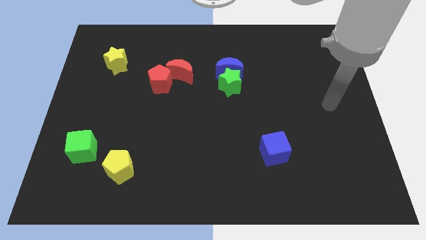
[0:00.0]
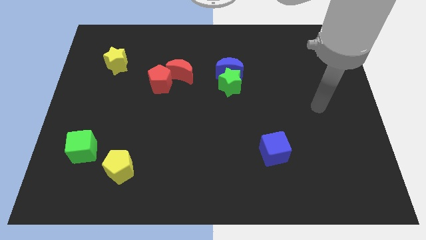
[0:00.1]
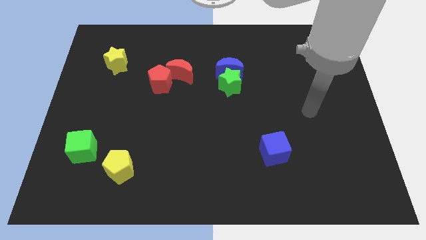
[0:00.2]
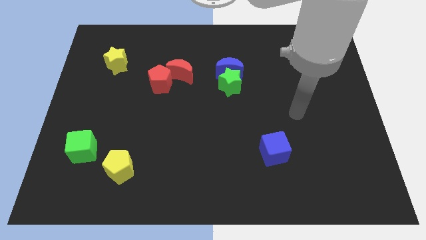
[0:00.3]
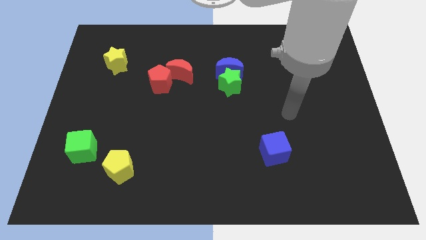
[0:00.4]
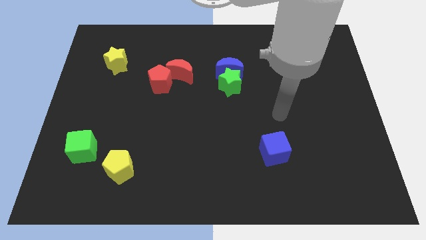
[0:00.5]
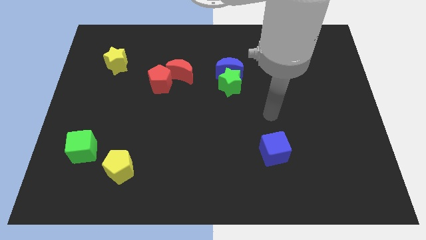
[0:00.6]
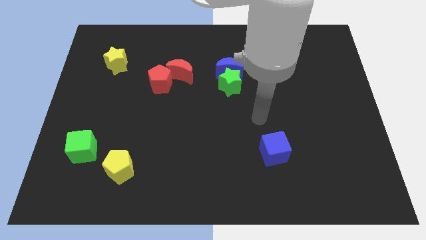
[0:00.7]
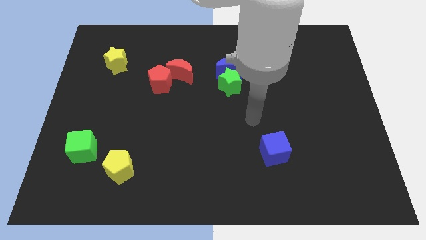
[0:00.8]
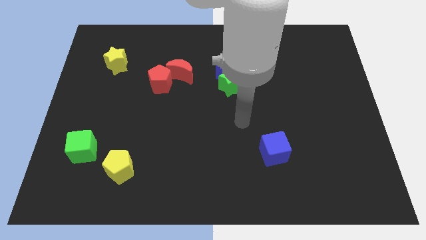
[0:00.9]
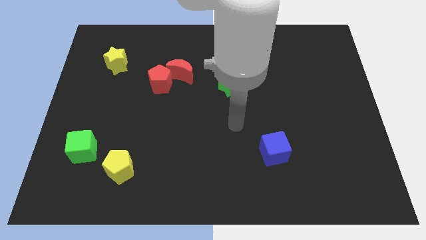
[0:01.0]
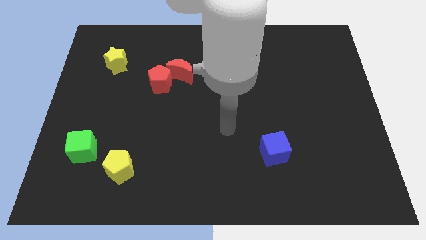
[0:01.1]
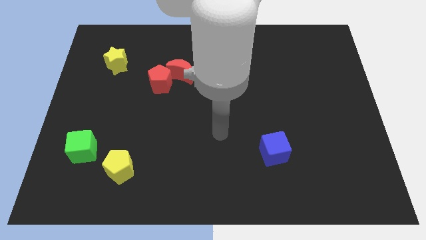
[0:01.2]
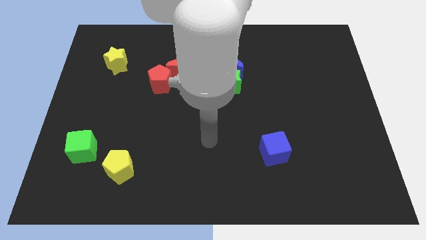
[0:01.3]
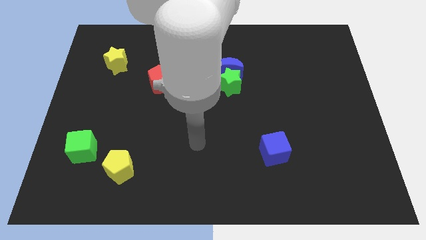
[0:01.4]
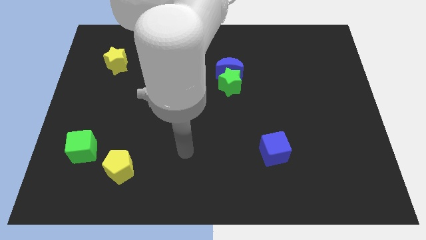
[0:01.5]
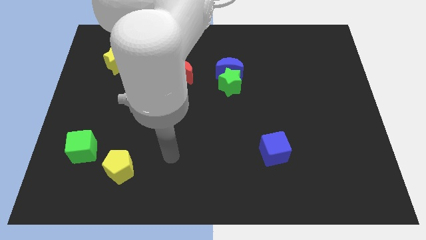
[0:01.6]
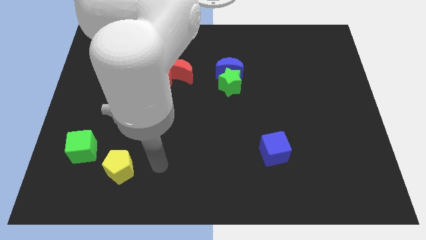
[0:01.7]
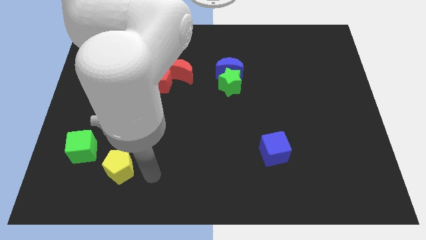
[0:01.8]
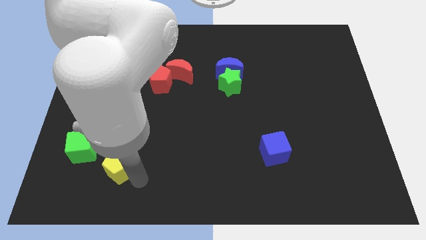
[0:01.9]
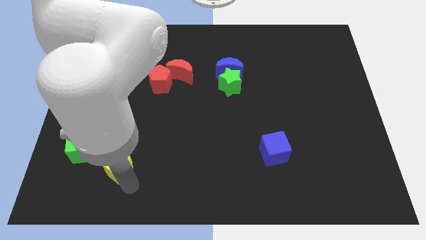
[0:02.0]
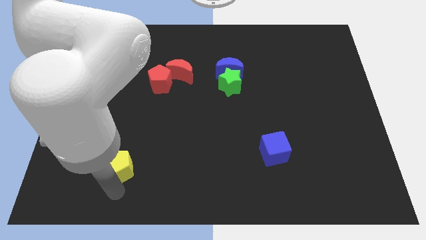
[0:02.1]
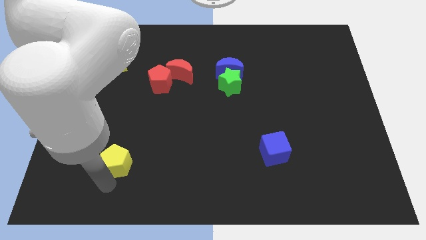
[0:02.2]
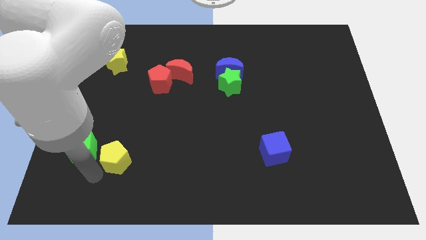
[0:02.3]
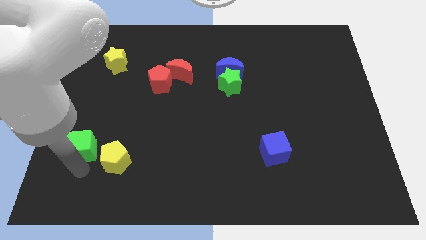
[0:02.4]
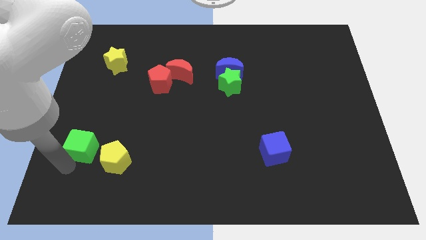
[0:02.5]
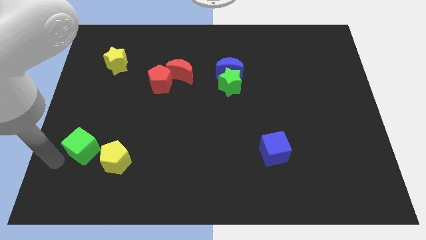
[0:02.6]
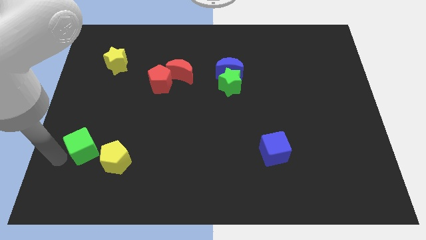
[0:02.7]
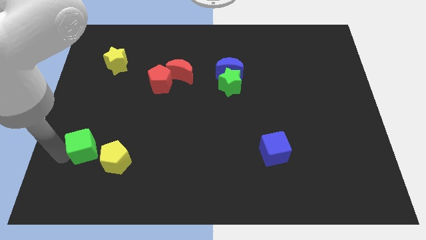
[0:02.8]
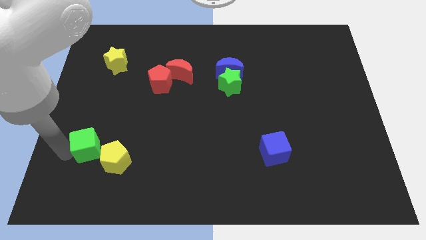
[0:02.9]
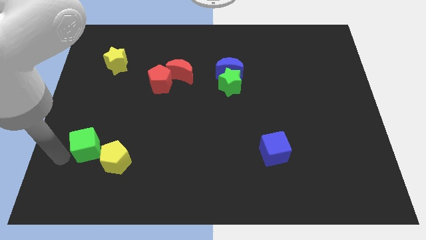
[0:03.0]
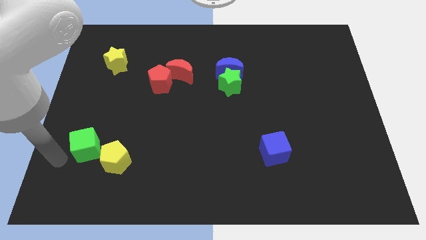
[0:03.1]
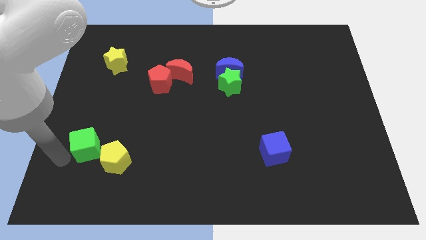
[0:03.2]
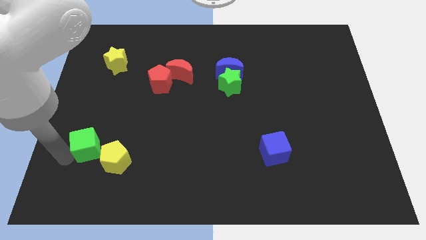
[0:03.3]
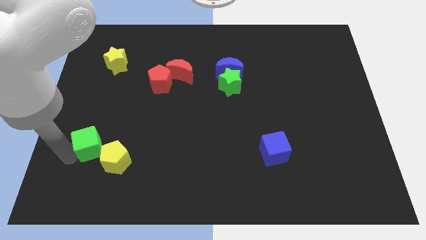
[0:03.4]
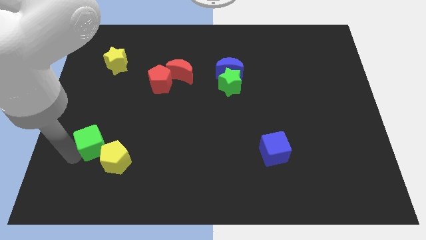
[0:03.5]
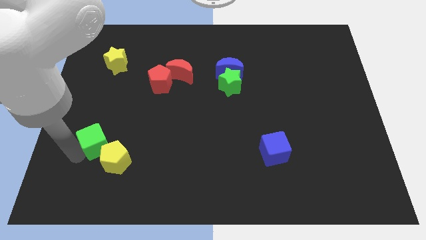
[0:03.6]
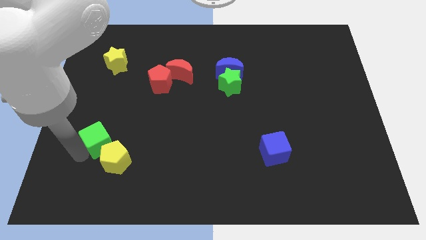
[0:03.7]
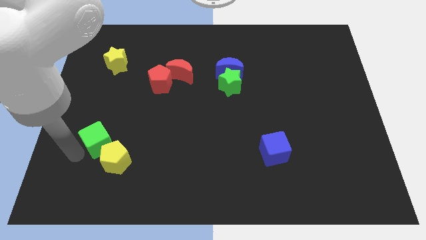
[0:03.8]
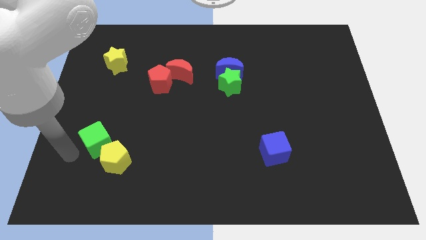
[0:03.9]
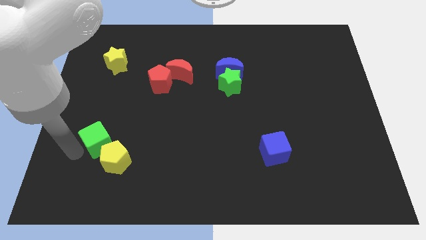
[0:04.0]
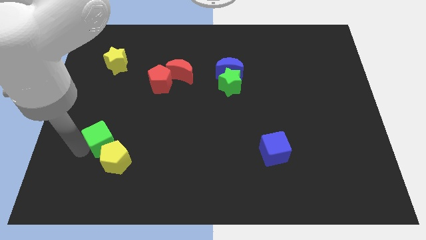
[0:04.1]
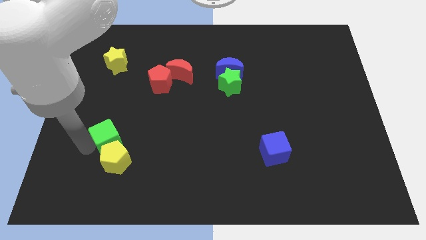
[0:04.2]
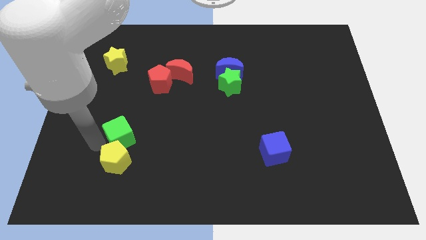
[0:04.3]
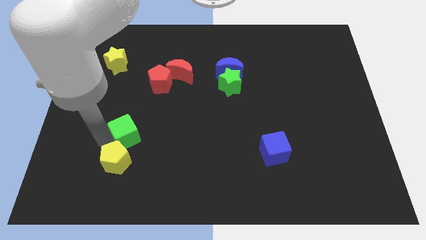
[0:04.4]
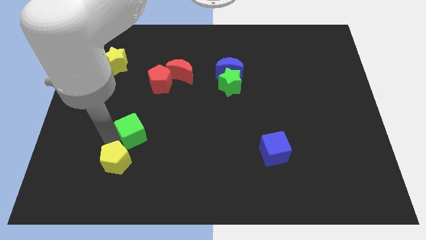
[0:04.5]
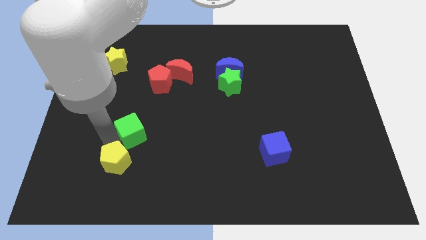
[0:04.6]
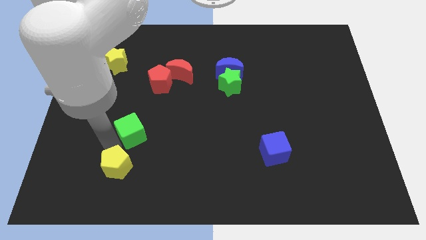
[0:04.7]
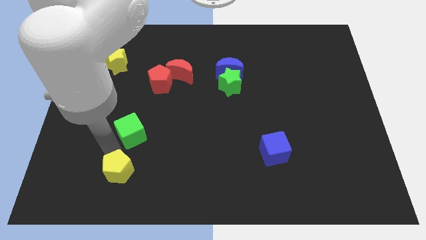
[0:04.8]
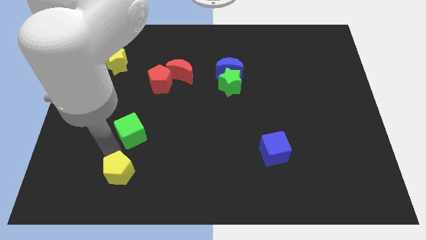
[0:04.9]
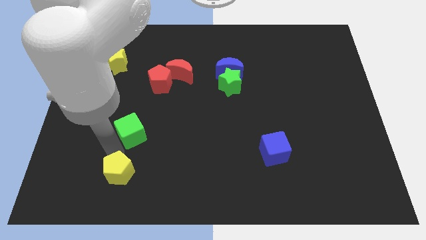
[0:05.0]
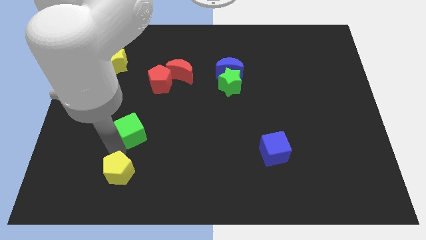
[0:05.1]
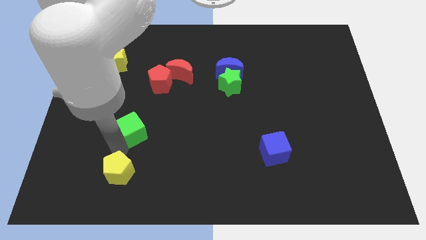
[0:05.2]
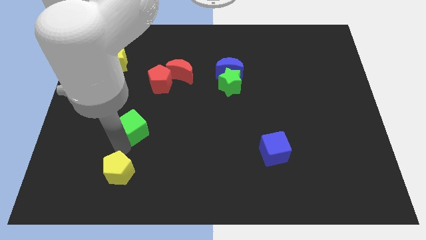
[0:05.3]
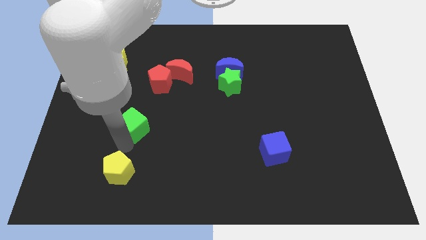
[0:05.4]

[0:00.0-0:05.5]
put the green cube to the bottom side of the red pentagon

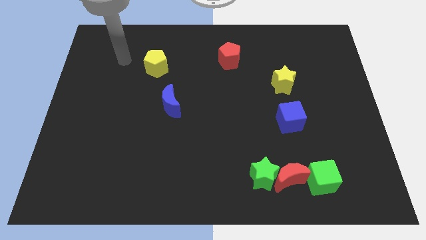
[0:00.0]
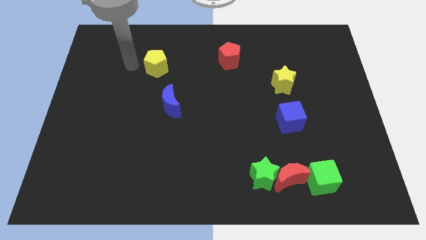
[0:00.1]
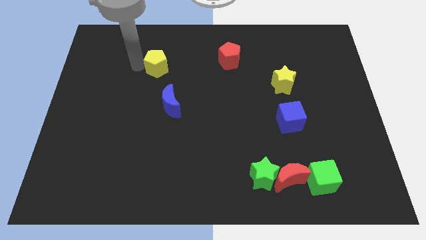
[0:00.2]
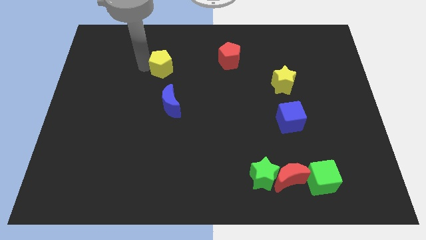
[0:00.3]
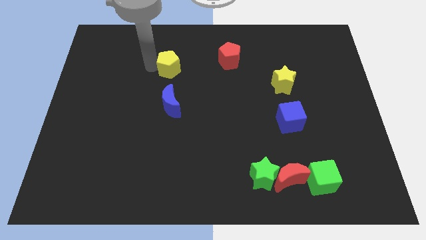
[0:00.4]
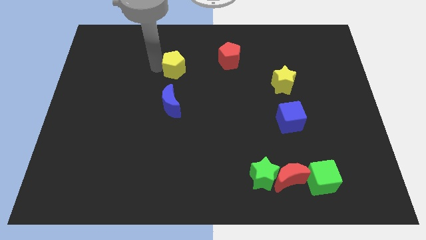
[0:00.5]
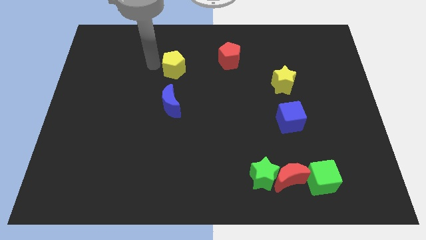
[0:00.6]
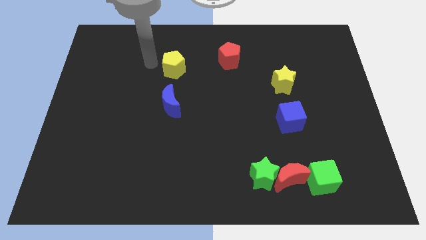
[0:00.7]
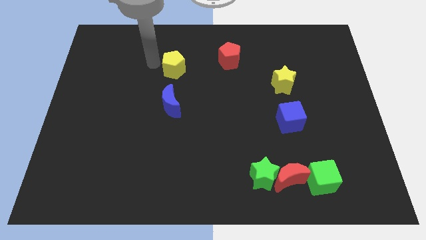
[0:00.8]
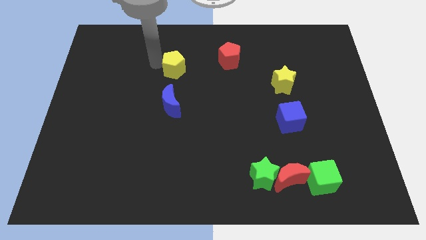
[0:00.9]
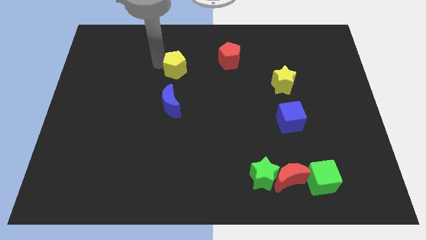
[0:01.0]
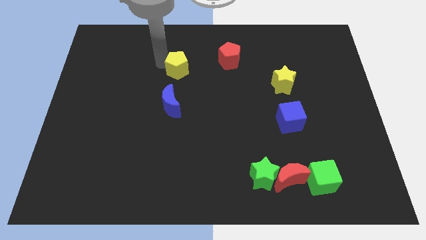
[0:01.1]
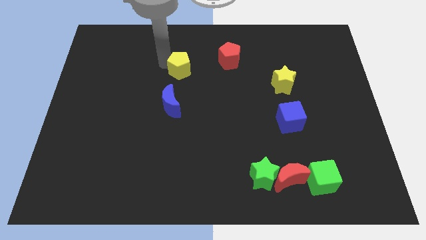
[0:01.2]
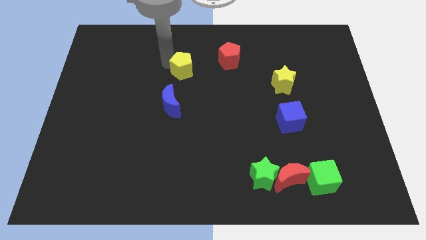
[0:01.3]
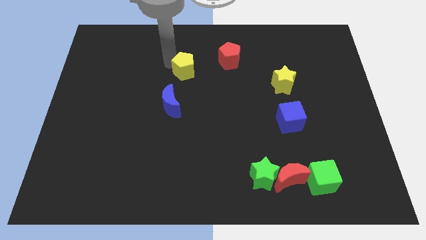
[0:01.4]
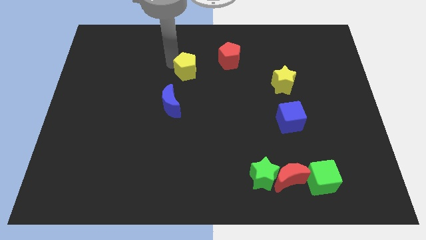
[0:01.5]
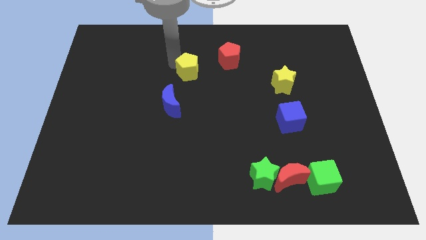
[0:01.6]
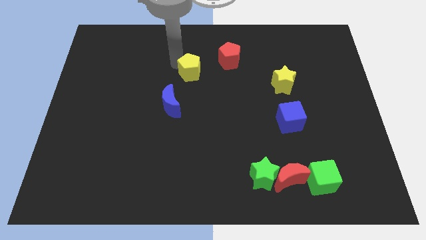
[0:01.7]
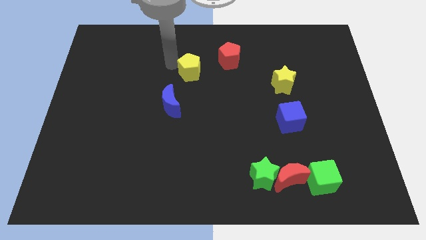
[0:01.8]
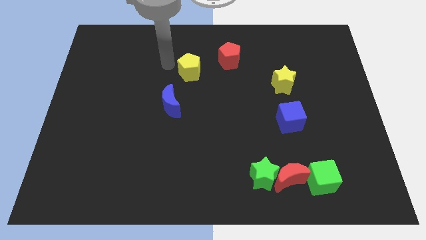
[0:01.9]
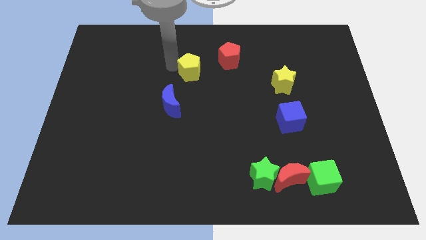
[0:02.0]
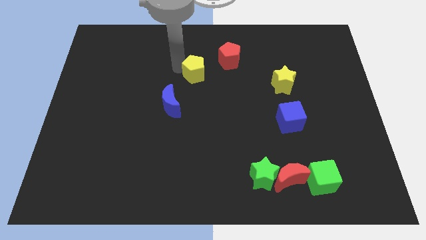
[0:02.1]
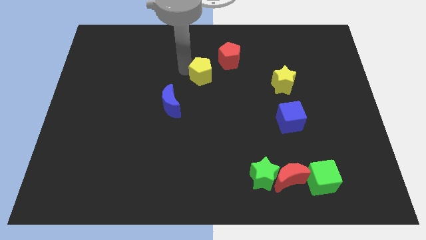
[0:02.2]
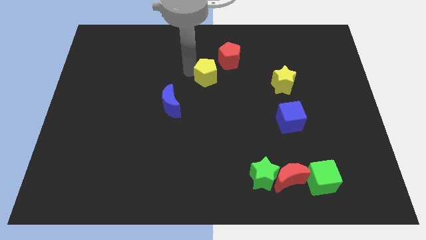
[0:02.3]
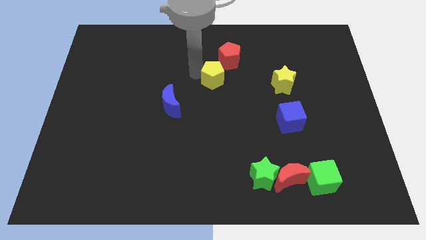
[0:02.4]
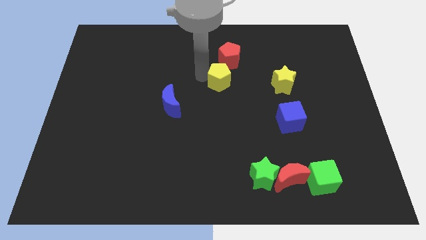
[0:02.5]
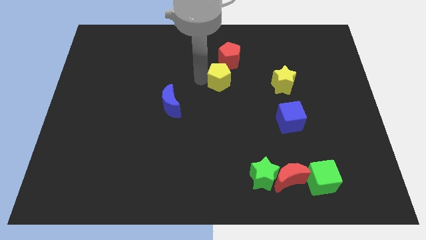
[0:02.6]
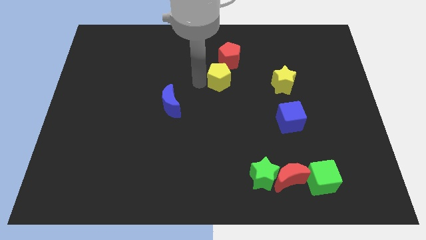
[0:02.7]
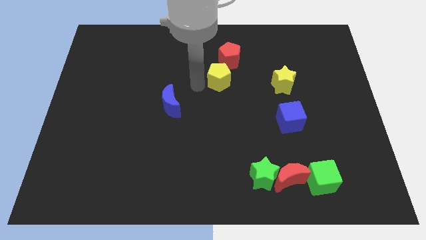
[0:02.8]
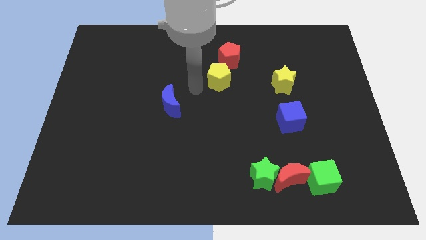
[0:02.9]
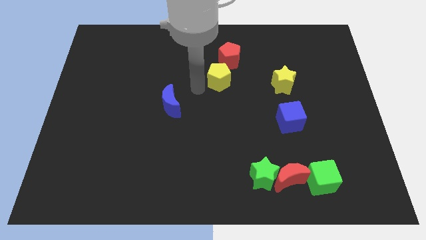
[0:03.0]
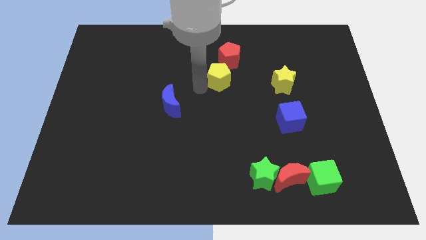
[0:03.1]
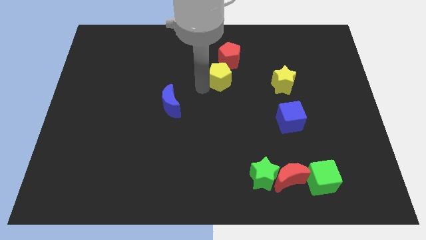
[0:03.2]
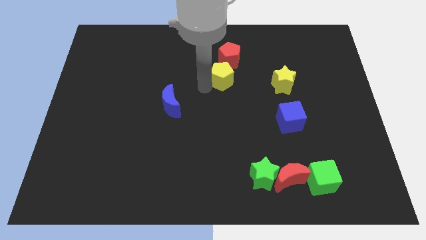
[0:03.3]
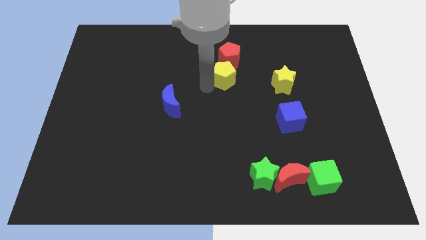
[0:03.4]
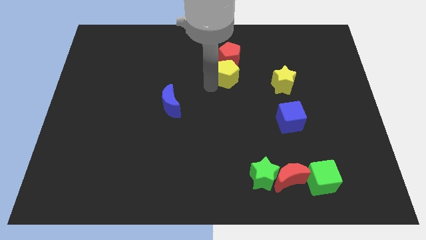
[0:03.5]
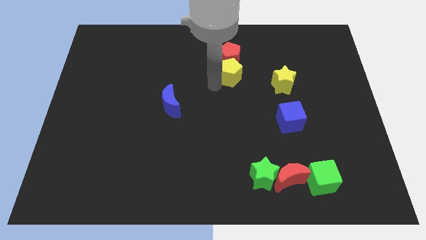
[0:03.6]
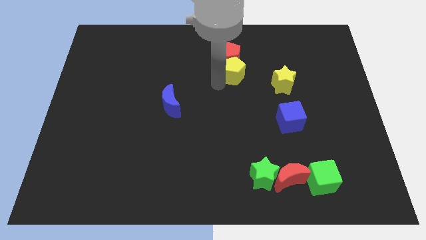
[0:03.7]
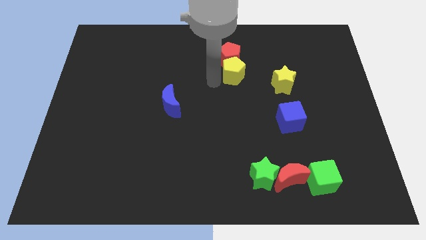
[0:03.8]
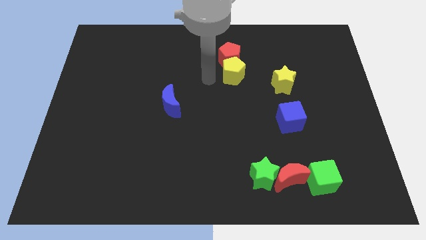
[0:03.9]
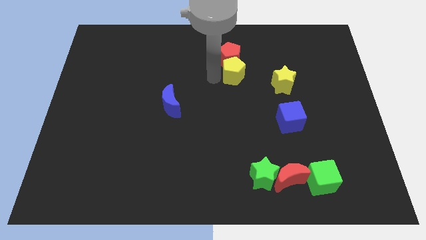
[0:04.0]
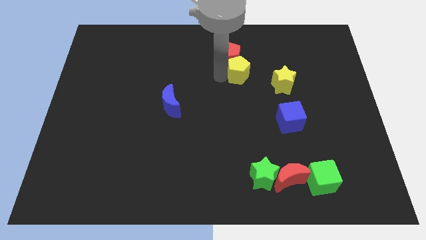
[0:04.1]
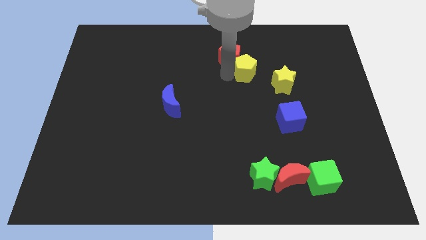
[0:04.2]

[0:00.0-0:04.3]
put the yellow pentagon to the top left side of the yellow star
